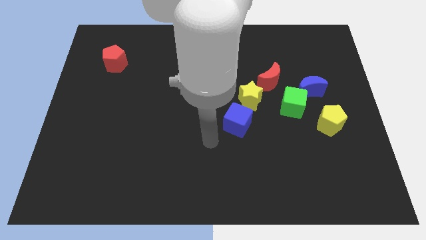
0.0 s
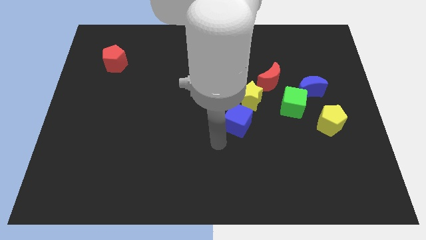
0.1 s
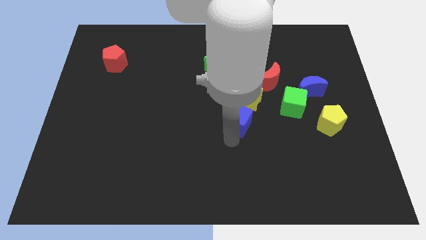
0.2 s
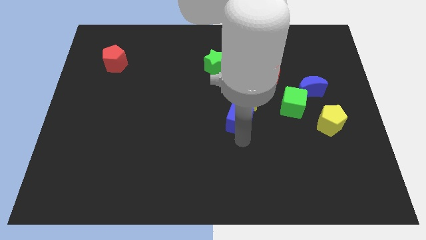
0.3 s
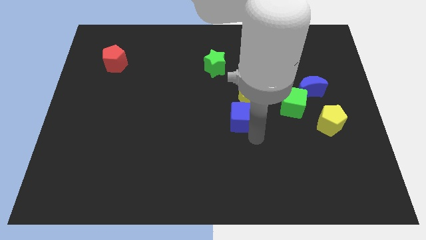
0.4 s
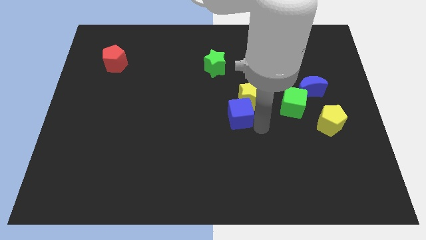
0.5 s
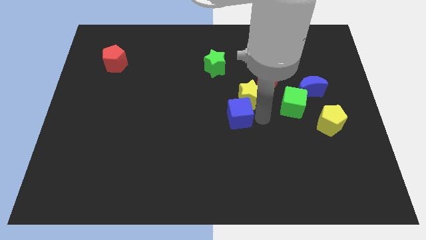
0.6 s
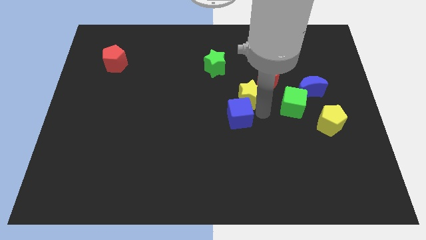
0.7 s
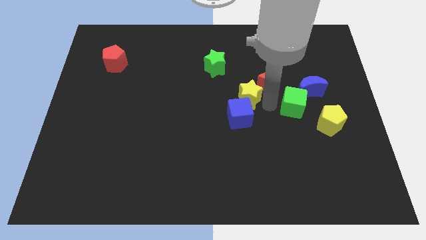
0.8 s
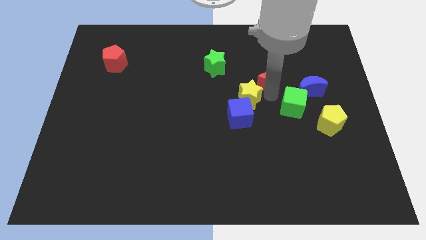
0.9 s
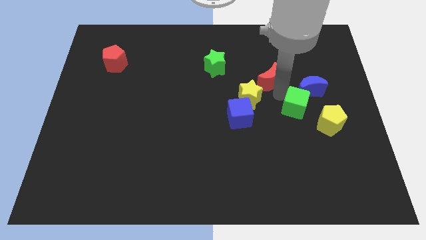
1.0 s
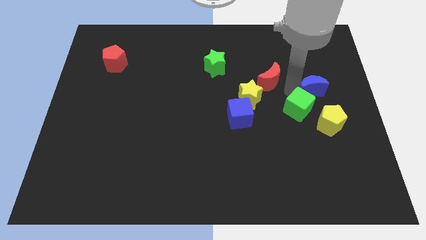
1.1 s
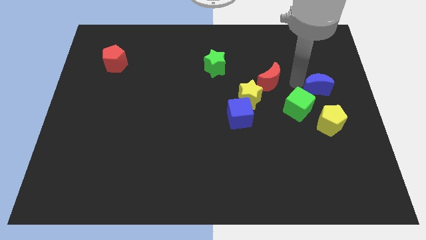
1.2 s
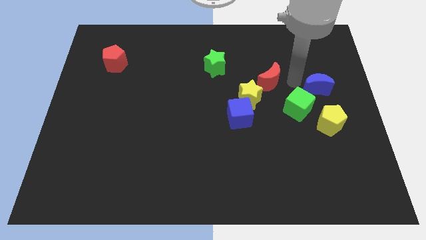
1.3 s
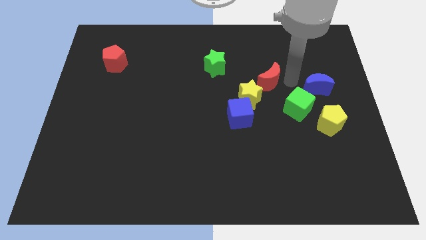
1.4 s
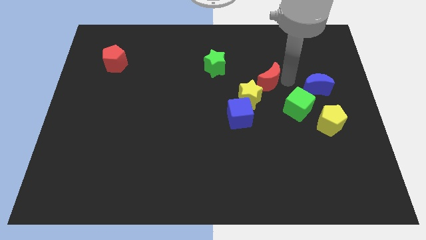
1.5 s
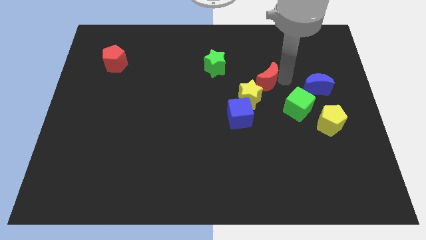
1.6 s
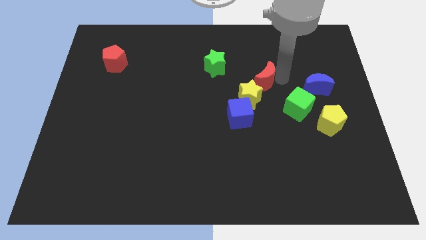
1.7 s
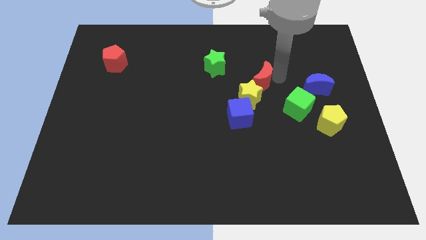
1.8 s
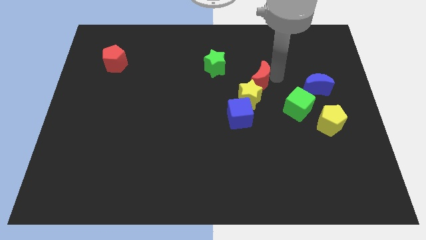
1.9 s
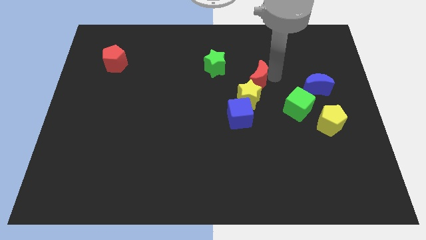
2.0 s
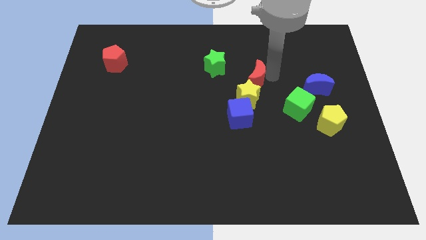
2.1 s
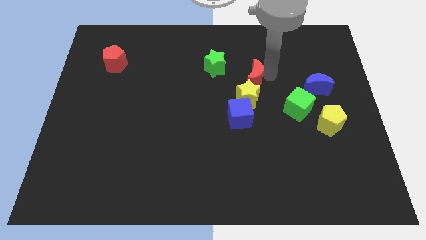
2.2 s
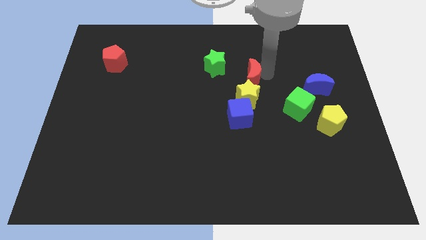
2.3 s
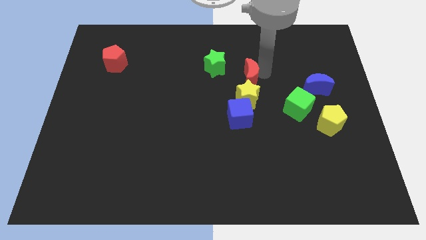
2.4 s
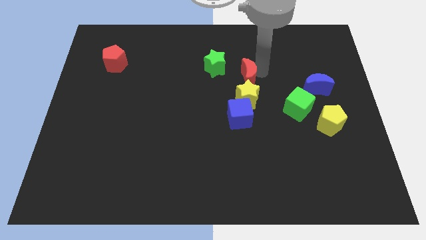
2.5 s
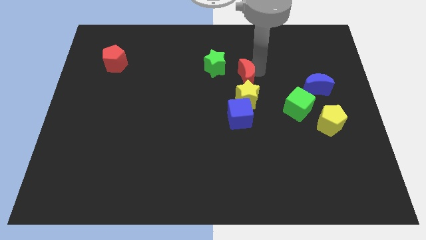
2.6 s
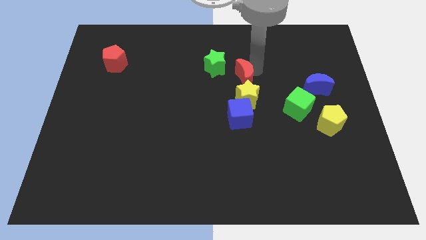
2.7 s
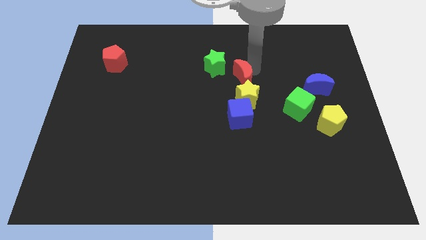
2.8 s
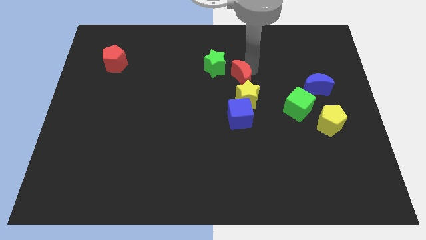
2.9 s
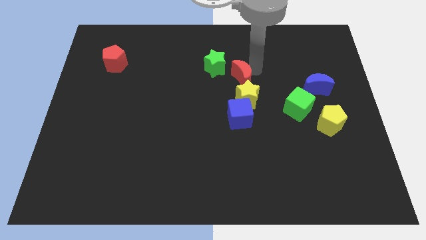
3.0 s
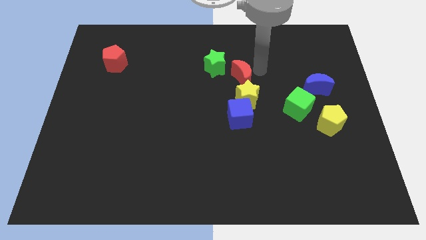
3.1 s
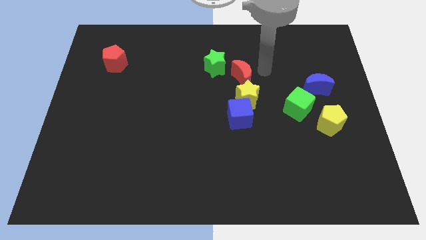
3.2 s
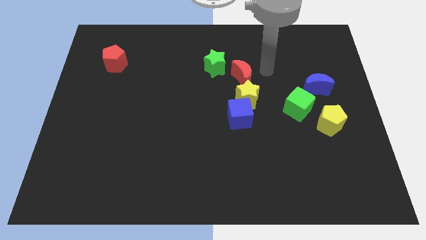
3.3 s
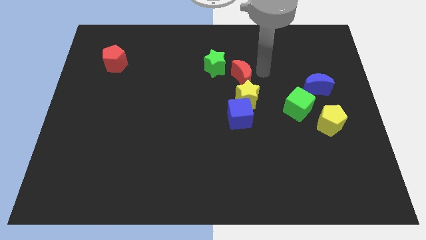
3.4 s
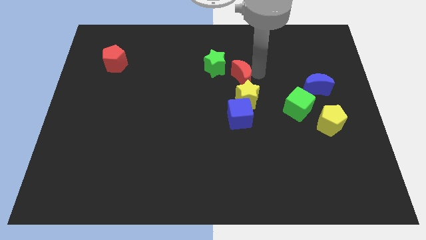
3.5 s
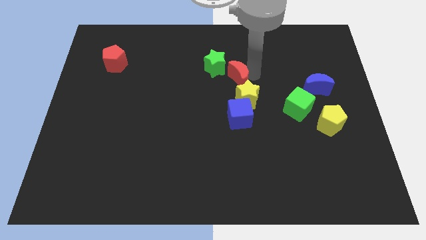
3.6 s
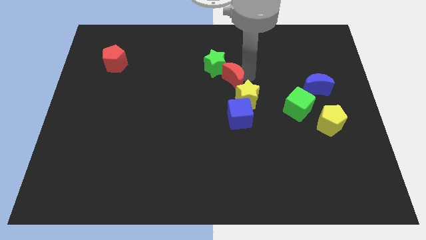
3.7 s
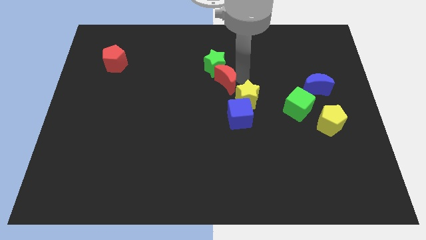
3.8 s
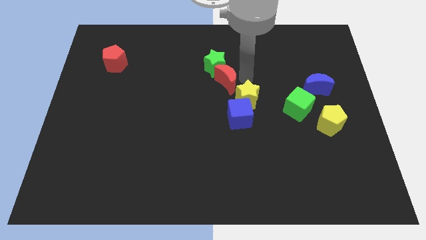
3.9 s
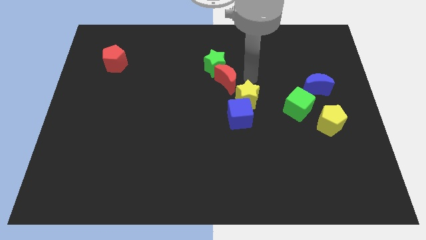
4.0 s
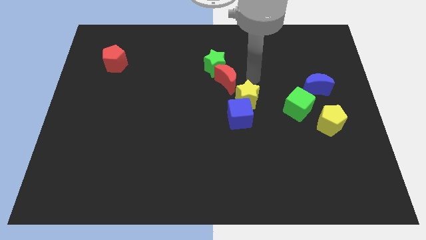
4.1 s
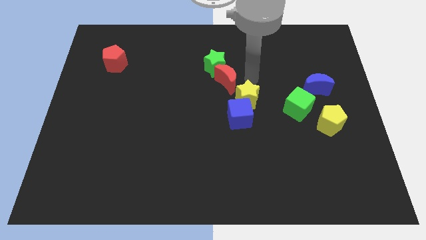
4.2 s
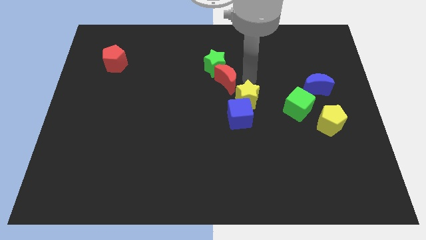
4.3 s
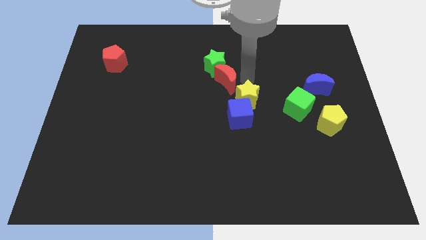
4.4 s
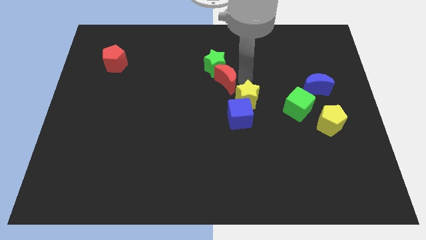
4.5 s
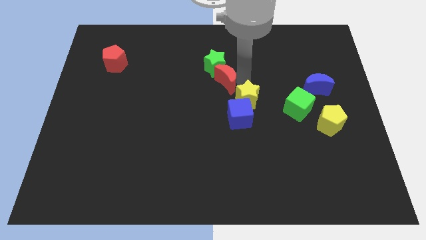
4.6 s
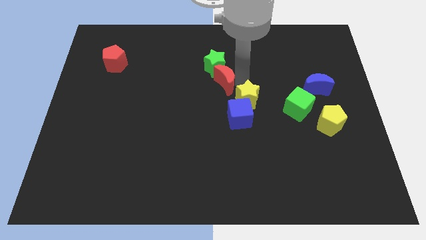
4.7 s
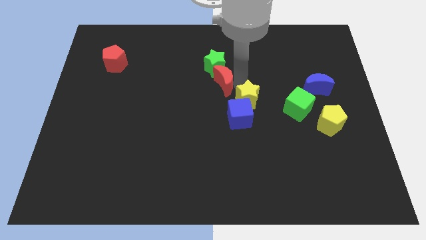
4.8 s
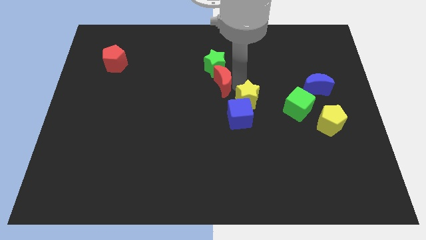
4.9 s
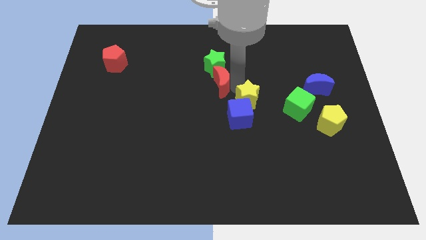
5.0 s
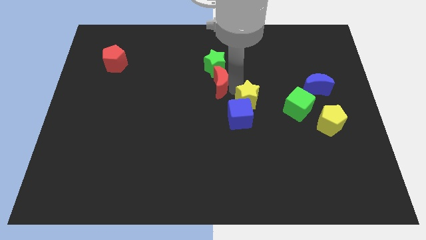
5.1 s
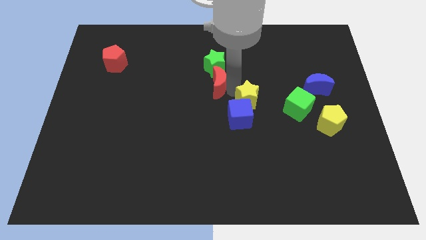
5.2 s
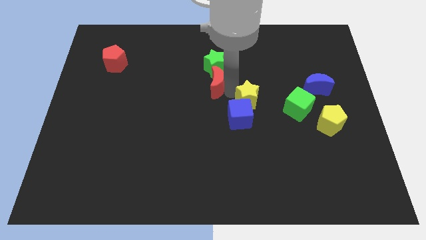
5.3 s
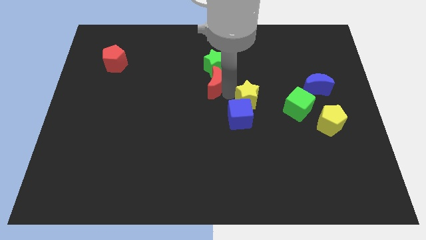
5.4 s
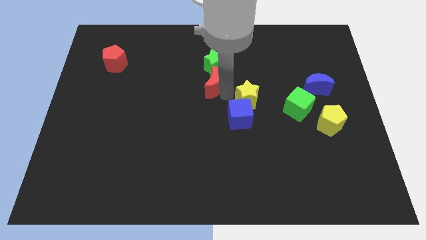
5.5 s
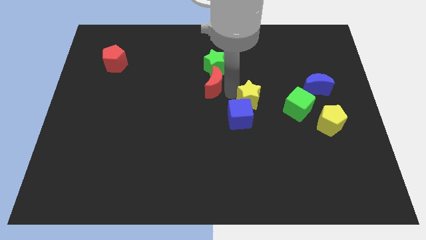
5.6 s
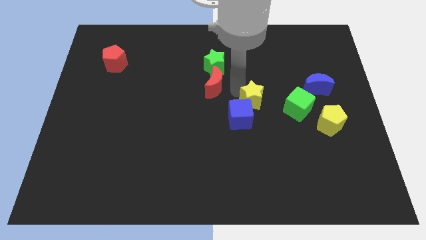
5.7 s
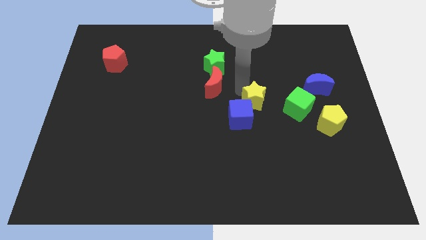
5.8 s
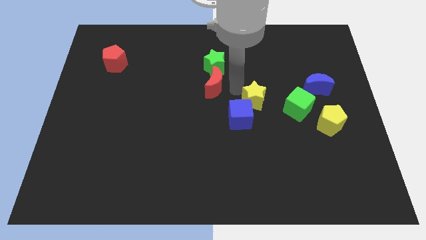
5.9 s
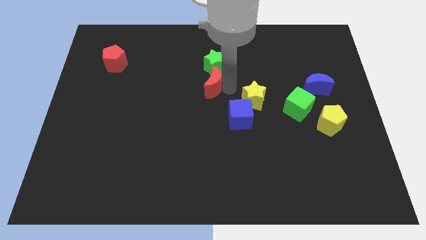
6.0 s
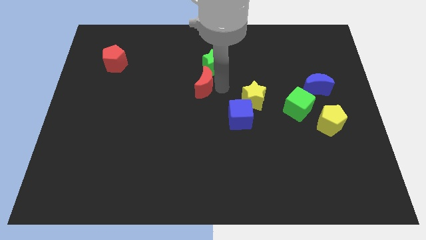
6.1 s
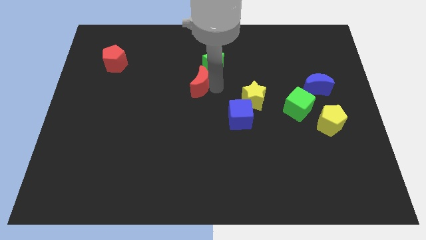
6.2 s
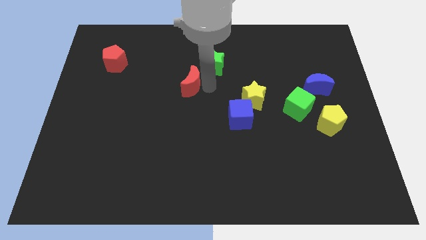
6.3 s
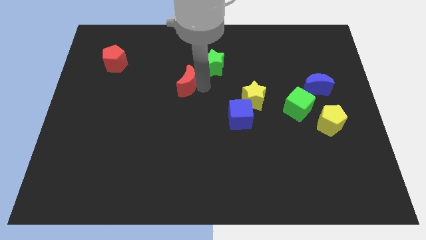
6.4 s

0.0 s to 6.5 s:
move the red moon left

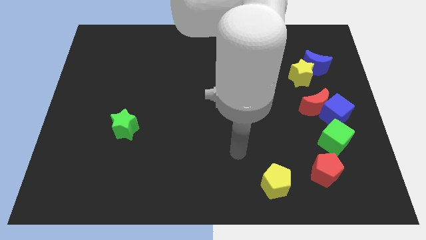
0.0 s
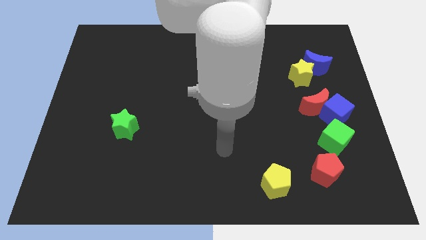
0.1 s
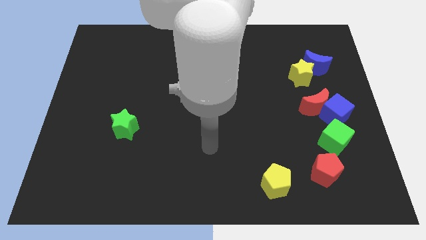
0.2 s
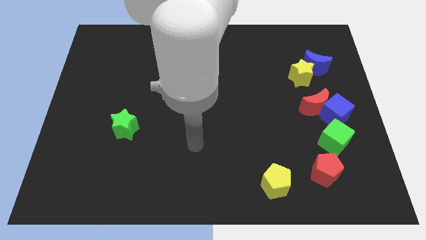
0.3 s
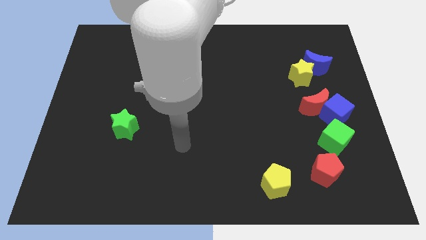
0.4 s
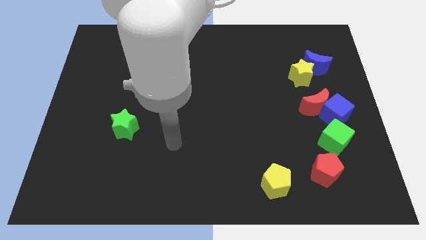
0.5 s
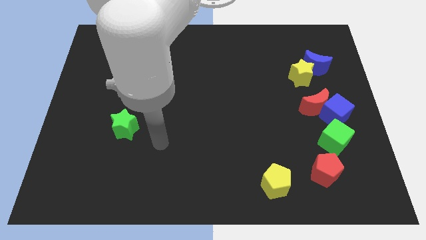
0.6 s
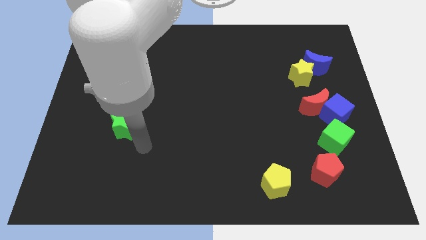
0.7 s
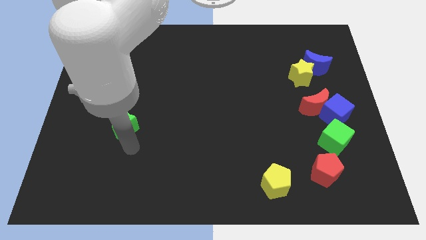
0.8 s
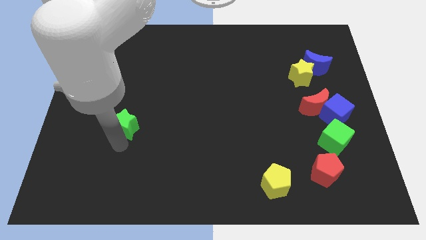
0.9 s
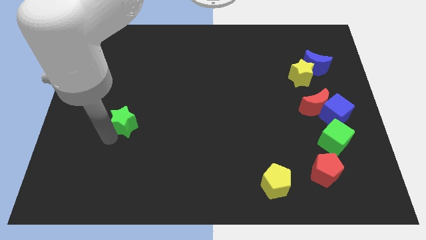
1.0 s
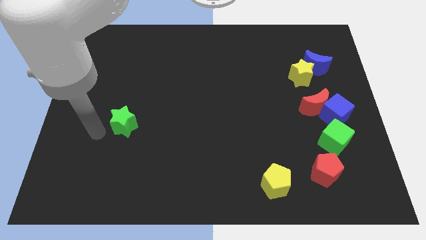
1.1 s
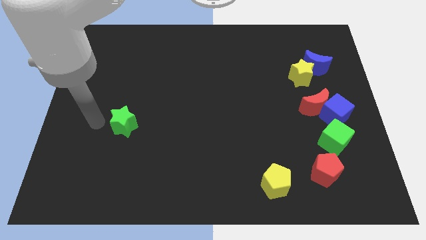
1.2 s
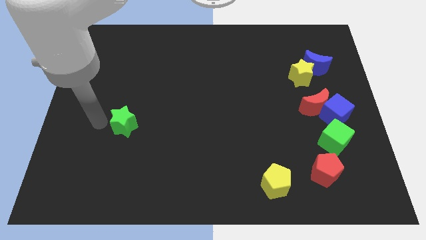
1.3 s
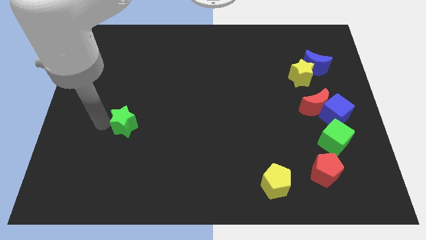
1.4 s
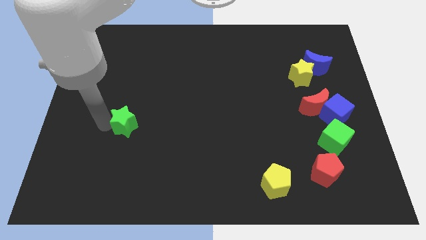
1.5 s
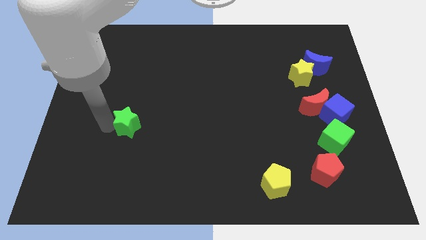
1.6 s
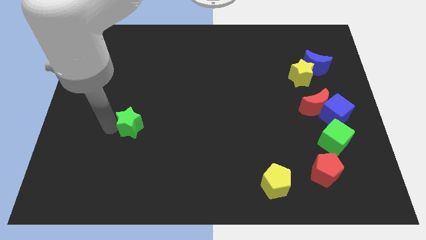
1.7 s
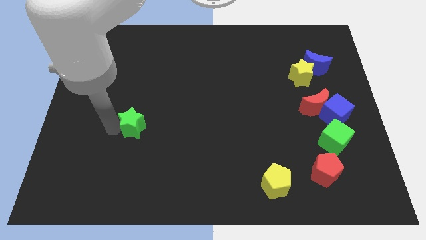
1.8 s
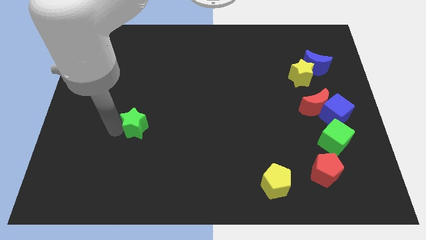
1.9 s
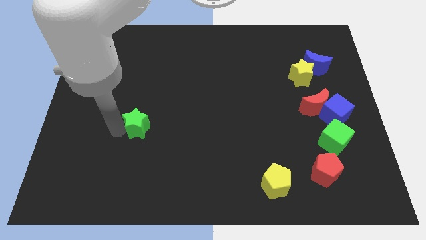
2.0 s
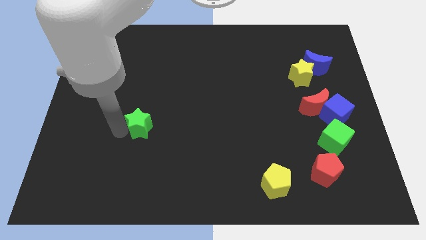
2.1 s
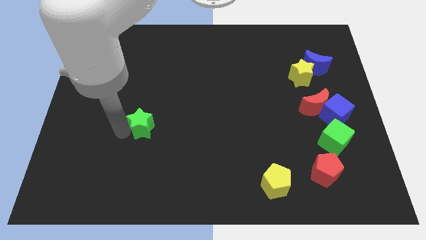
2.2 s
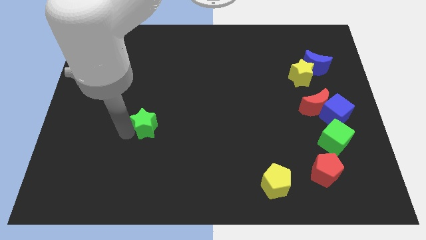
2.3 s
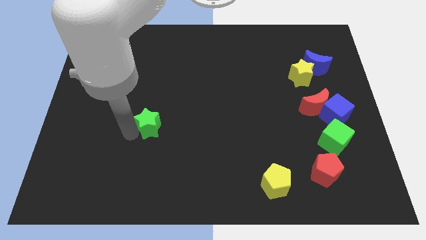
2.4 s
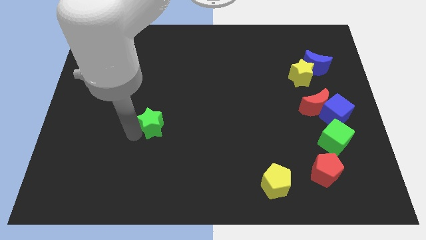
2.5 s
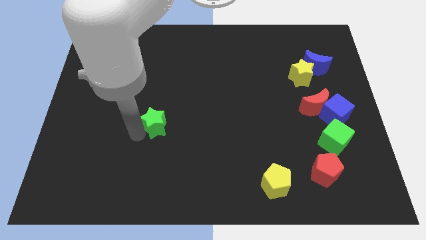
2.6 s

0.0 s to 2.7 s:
slide the green star right somewhat
